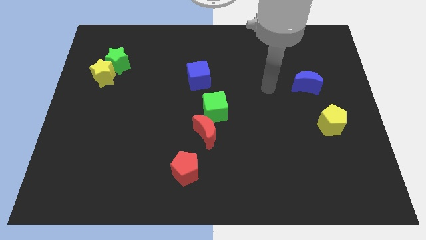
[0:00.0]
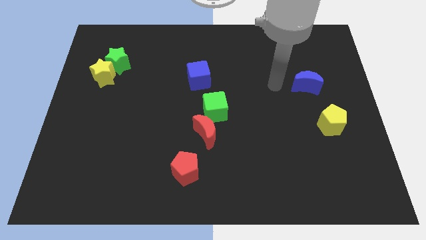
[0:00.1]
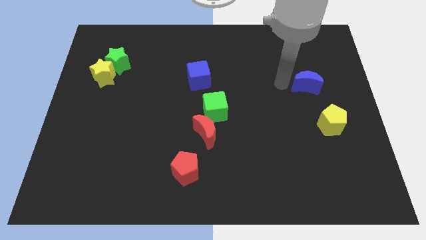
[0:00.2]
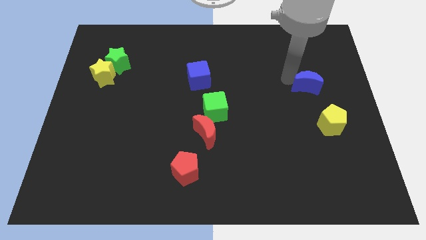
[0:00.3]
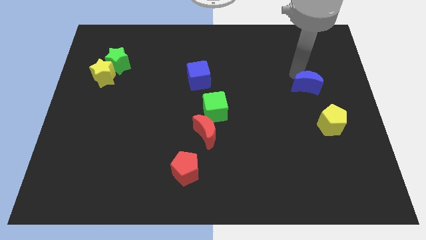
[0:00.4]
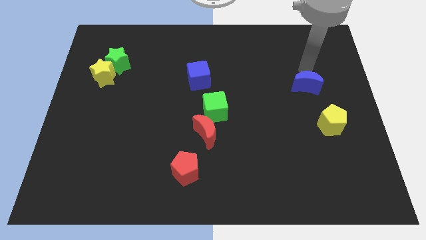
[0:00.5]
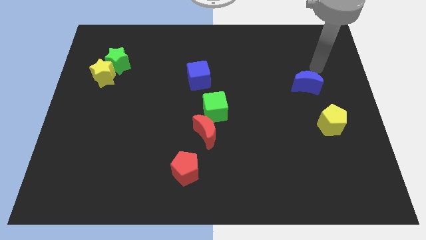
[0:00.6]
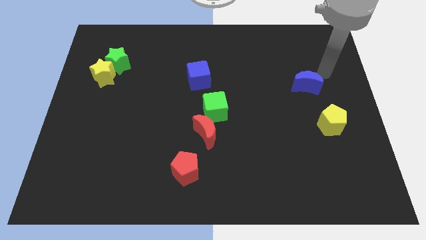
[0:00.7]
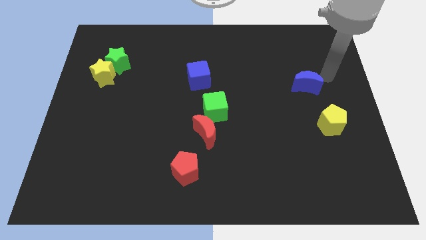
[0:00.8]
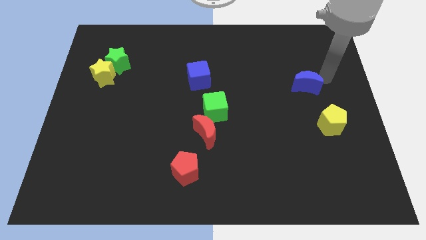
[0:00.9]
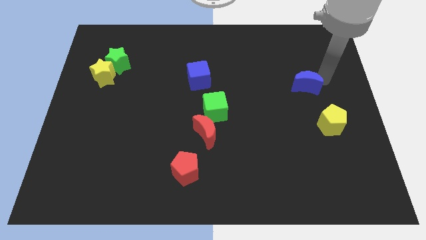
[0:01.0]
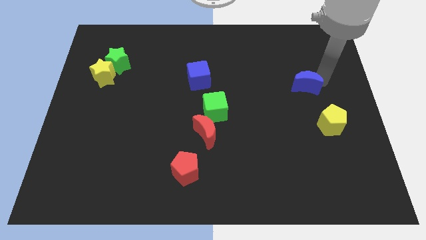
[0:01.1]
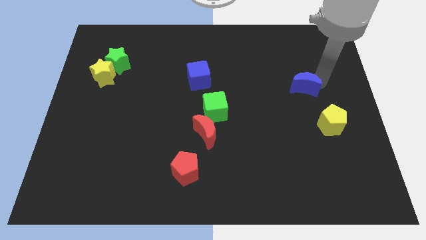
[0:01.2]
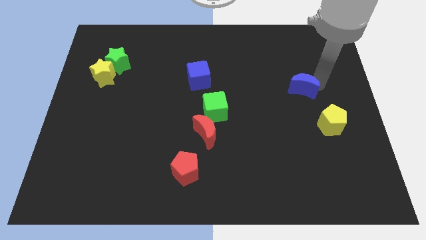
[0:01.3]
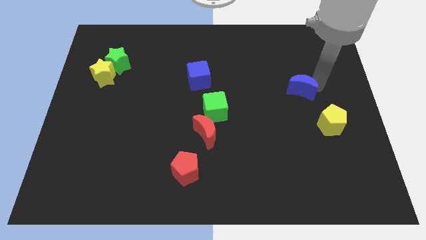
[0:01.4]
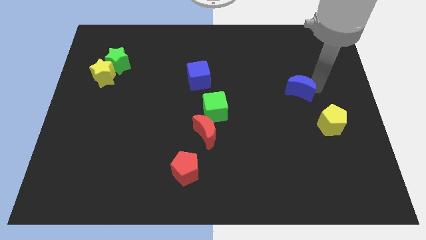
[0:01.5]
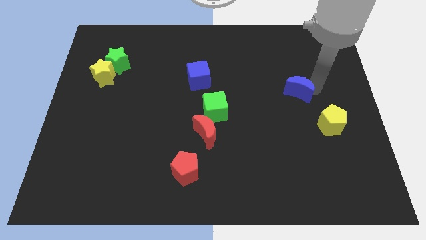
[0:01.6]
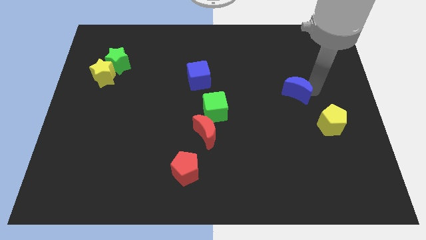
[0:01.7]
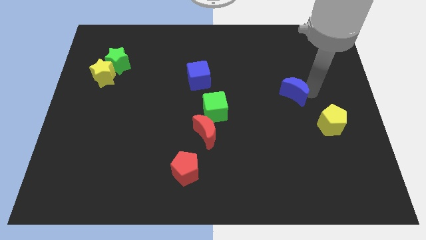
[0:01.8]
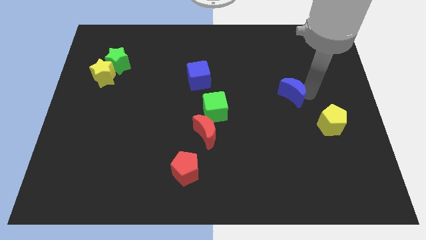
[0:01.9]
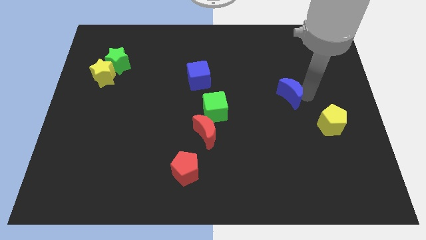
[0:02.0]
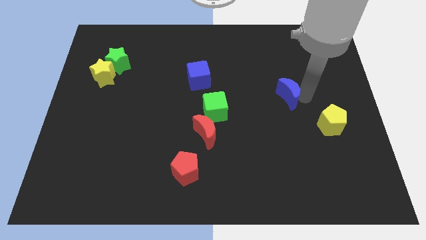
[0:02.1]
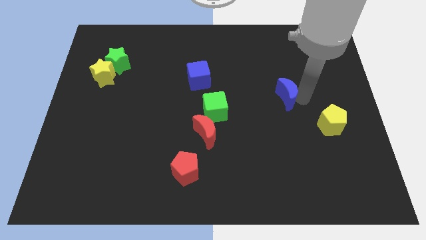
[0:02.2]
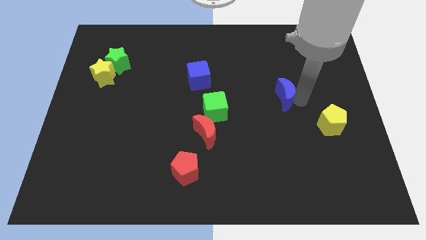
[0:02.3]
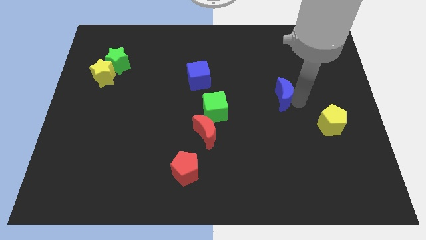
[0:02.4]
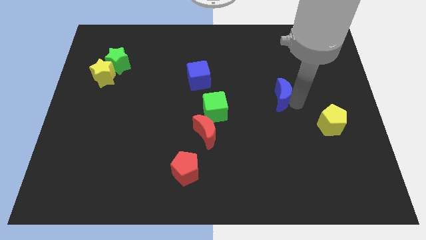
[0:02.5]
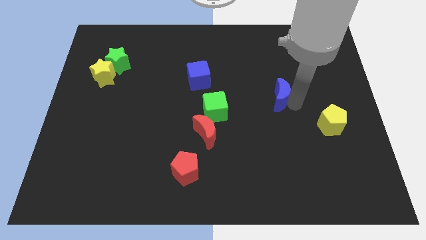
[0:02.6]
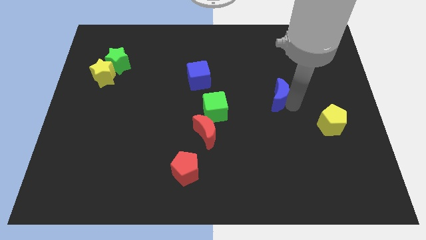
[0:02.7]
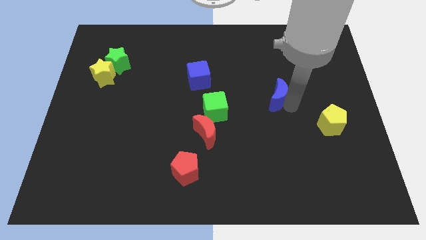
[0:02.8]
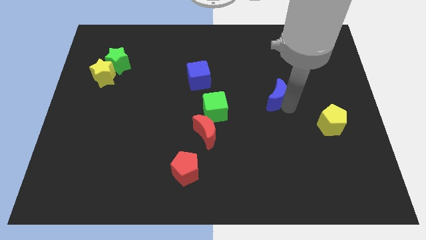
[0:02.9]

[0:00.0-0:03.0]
slide the blue moon a little bit left

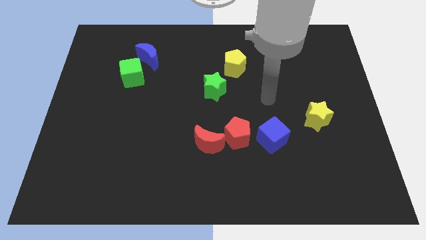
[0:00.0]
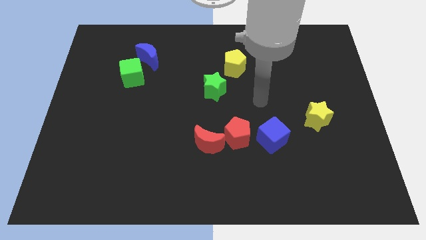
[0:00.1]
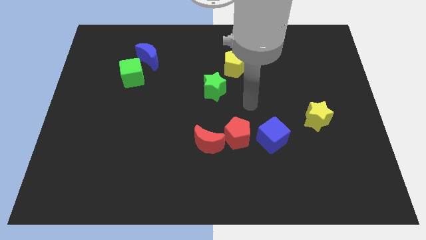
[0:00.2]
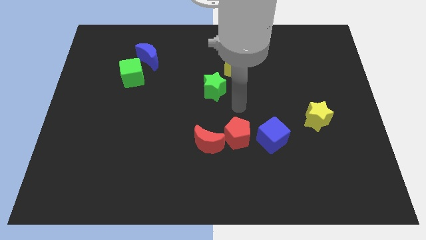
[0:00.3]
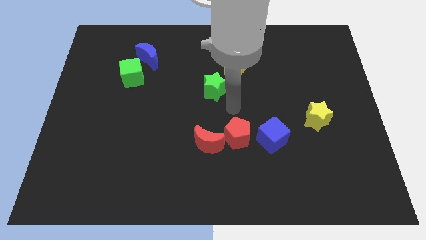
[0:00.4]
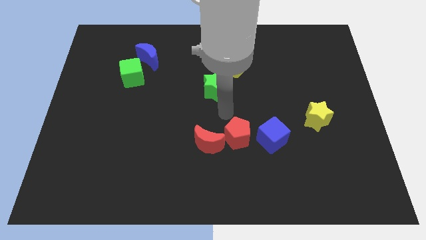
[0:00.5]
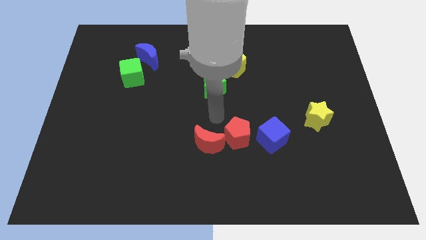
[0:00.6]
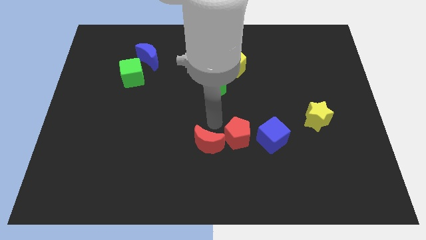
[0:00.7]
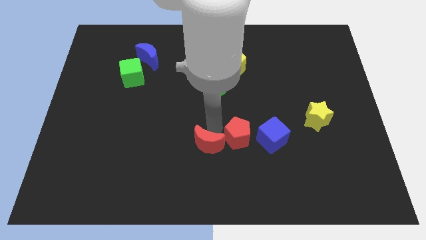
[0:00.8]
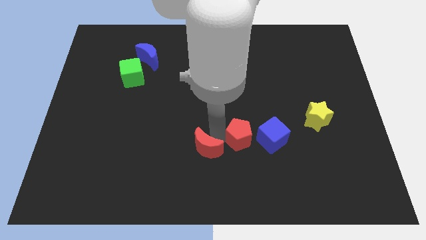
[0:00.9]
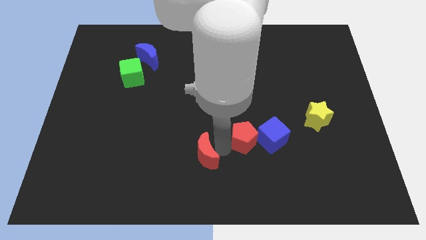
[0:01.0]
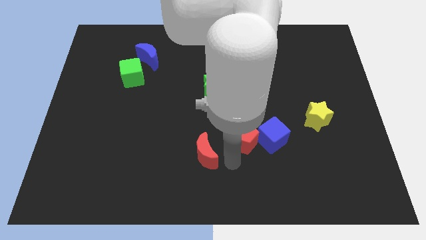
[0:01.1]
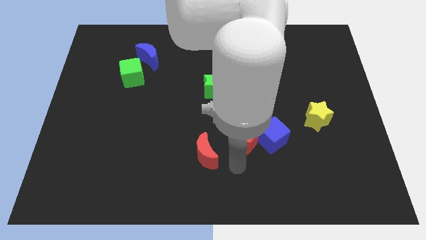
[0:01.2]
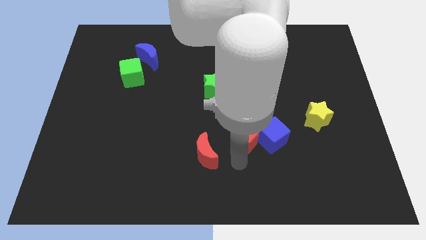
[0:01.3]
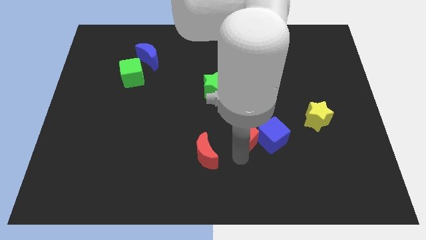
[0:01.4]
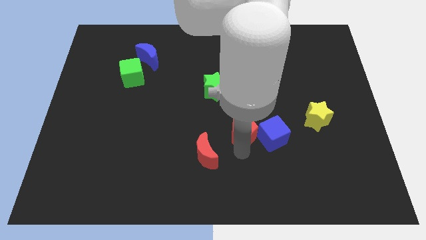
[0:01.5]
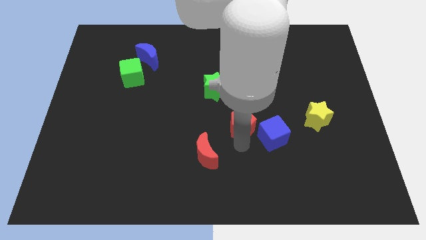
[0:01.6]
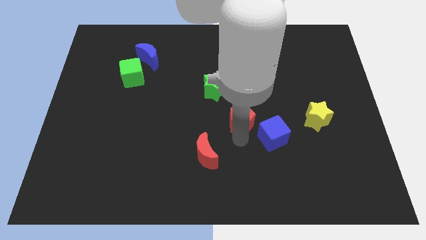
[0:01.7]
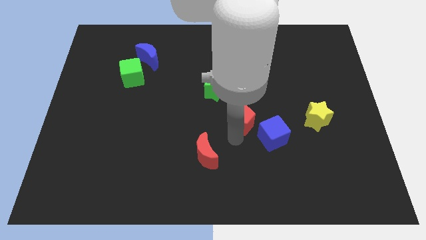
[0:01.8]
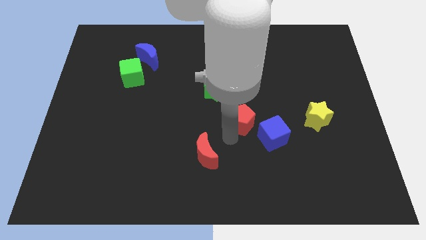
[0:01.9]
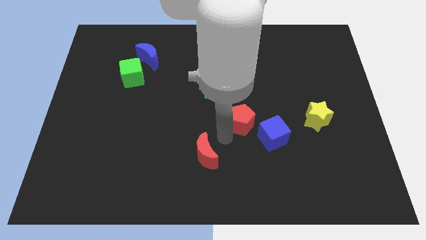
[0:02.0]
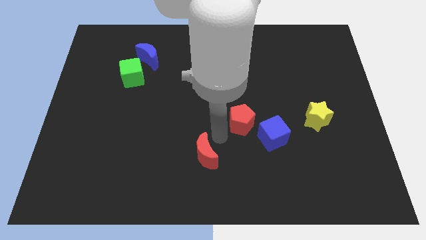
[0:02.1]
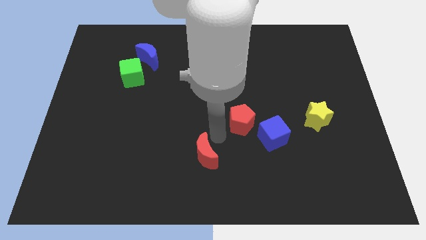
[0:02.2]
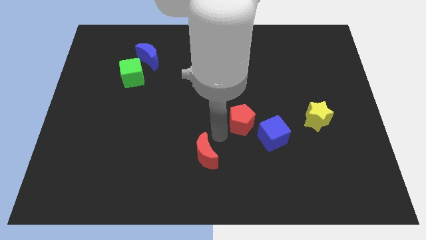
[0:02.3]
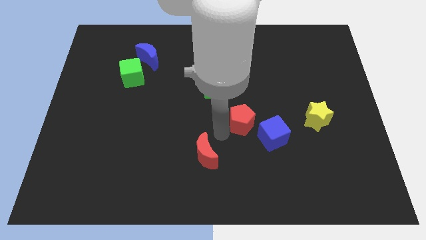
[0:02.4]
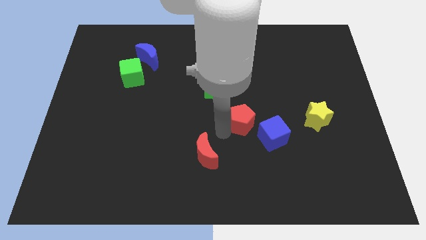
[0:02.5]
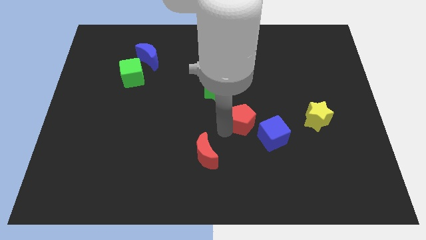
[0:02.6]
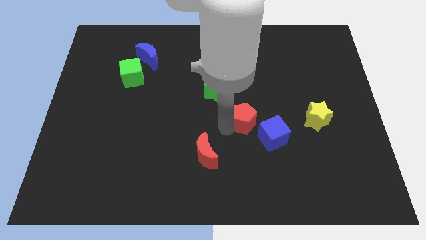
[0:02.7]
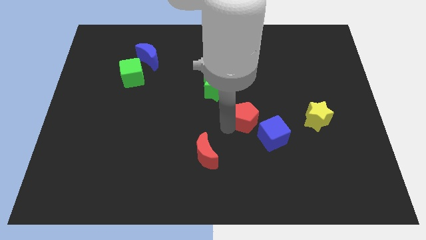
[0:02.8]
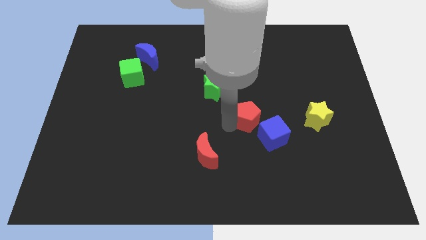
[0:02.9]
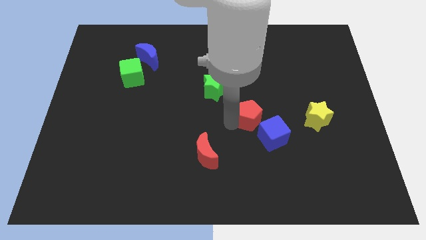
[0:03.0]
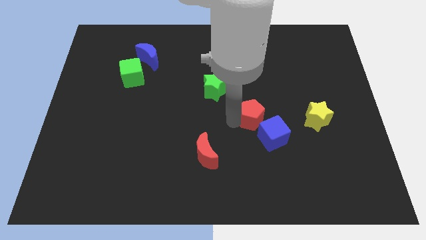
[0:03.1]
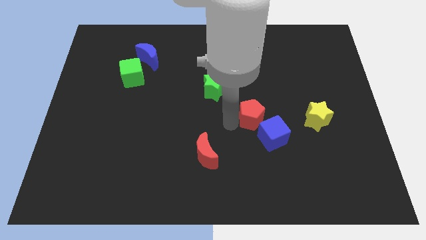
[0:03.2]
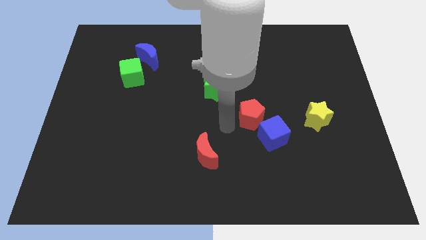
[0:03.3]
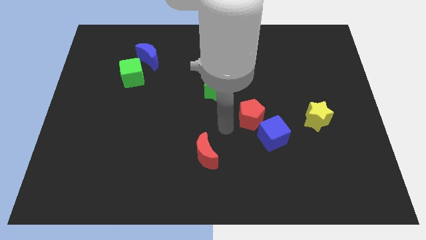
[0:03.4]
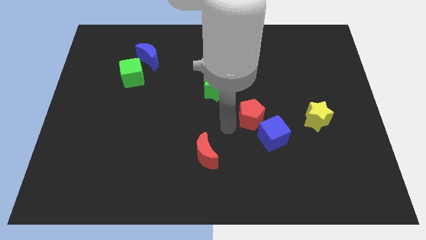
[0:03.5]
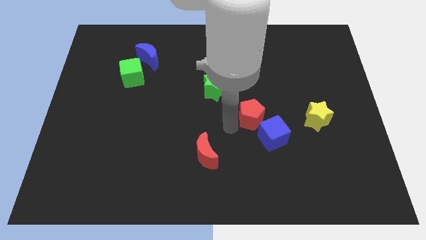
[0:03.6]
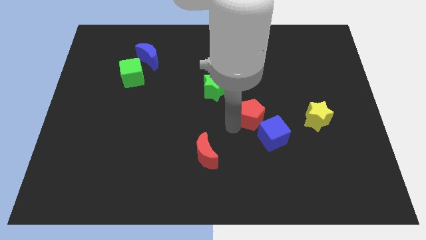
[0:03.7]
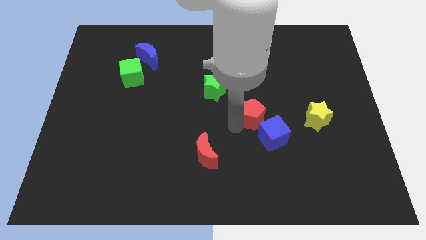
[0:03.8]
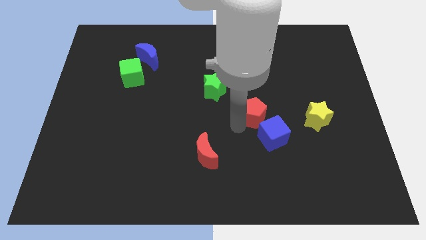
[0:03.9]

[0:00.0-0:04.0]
slightly push the red pentagon diagonally up and right

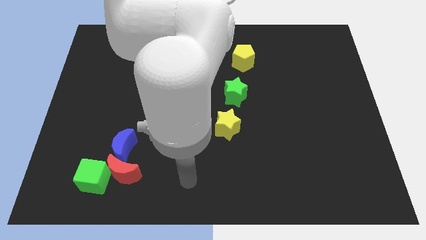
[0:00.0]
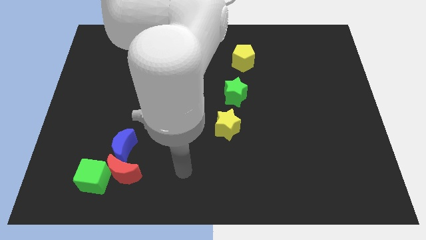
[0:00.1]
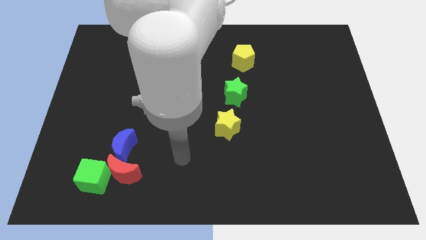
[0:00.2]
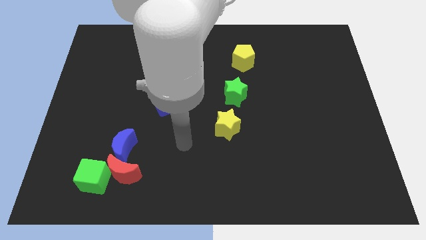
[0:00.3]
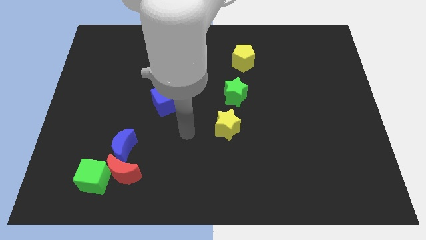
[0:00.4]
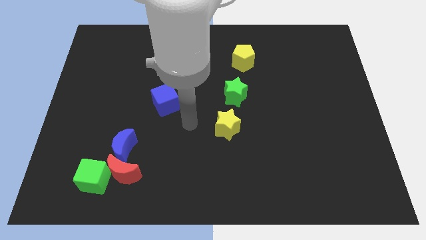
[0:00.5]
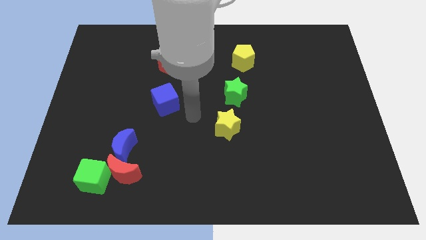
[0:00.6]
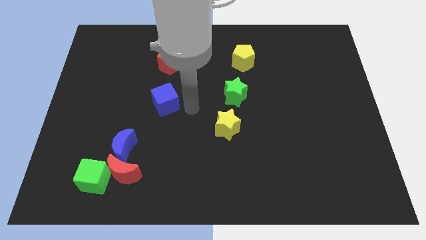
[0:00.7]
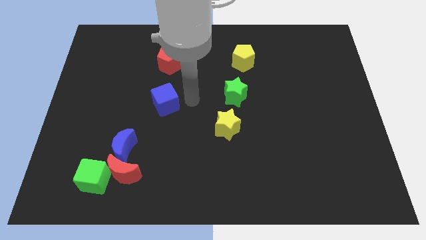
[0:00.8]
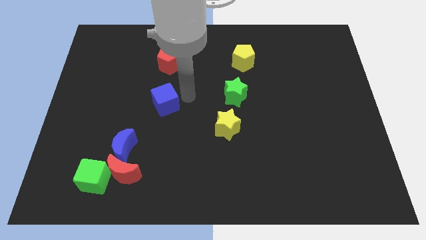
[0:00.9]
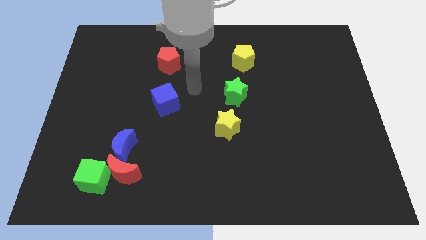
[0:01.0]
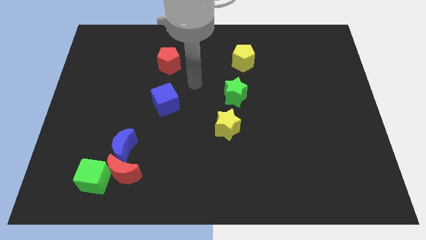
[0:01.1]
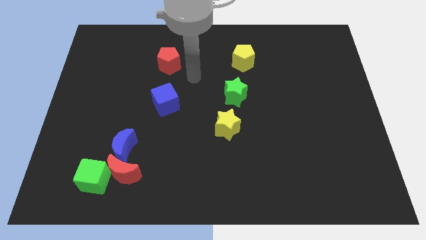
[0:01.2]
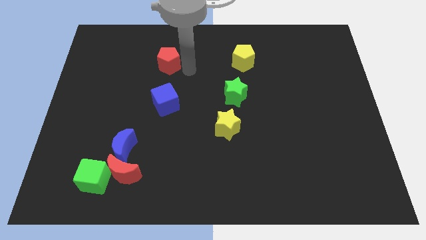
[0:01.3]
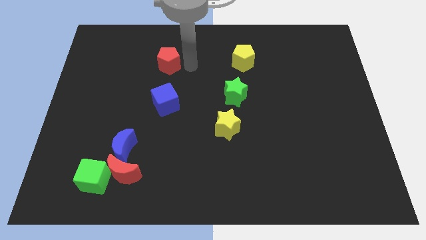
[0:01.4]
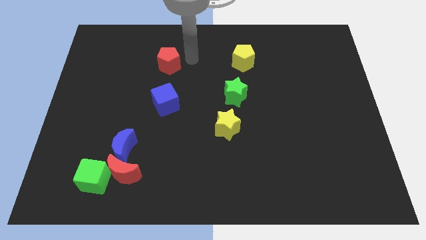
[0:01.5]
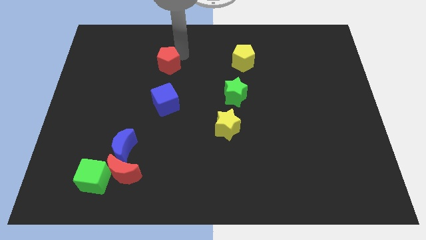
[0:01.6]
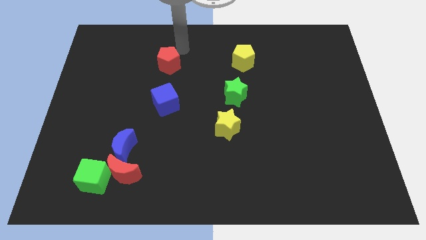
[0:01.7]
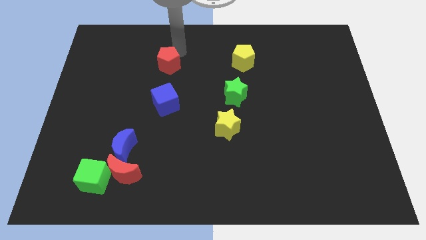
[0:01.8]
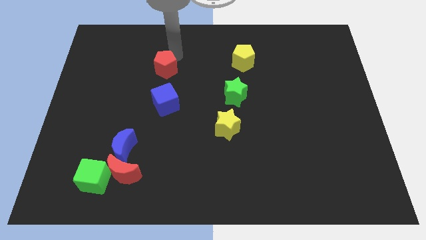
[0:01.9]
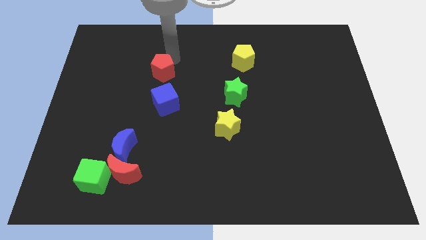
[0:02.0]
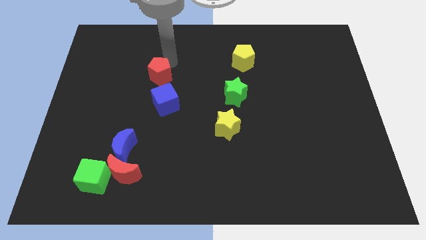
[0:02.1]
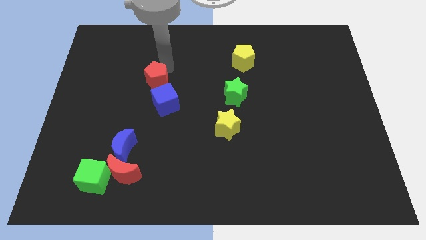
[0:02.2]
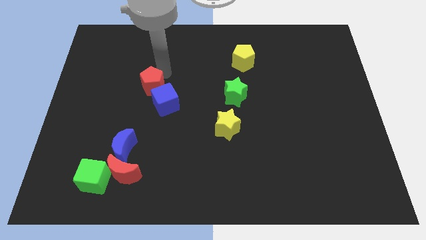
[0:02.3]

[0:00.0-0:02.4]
slide the red pentagon slightly downwards and to the left
